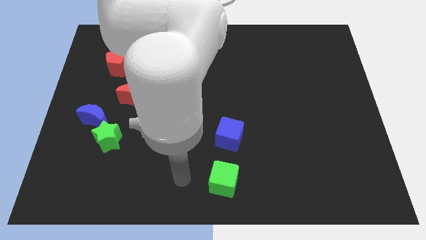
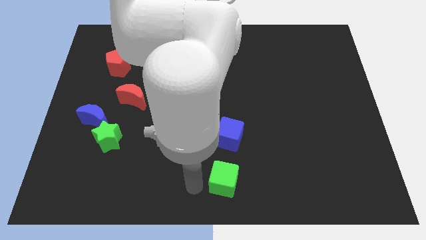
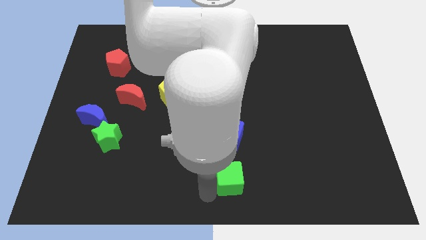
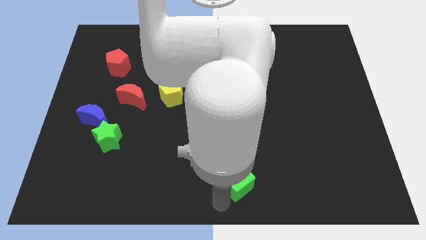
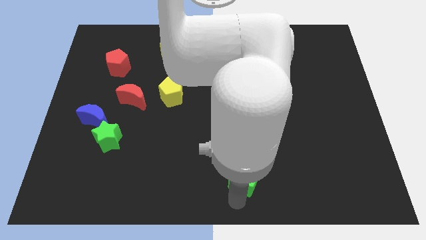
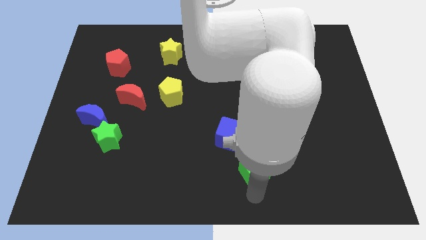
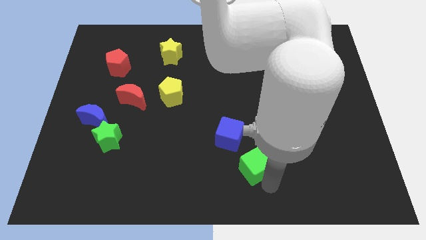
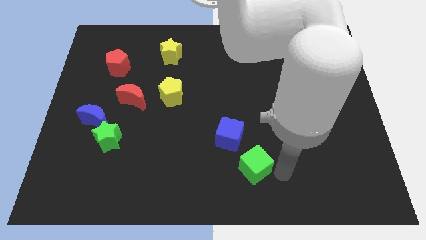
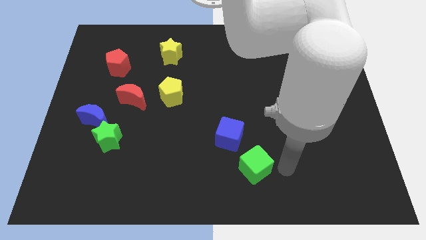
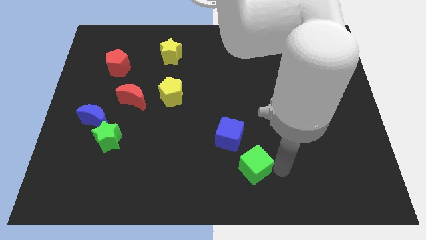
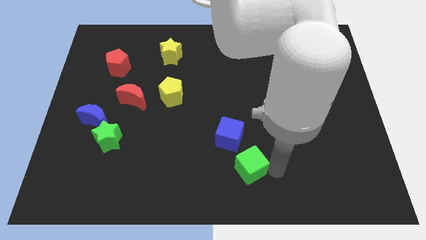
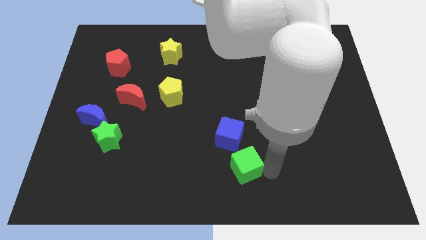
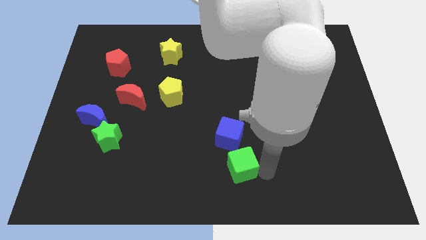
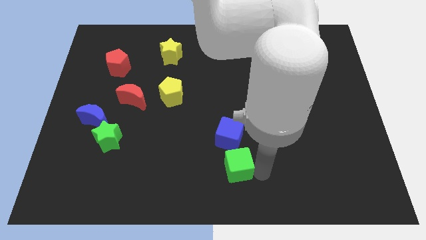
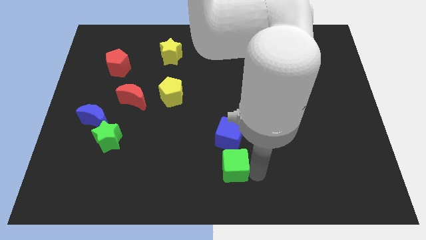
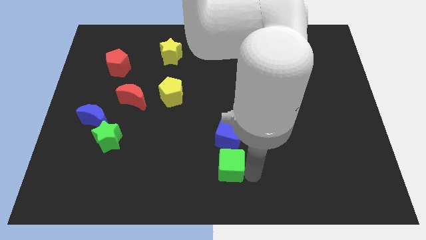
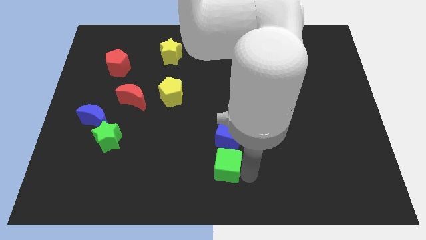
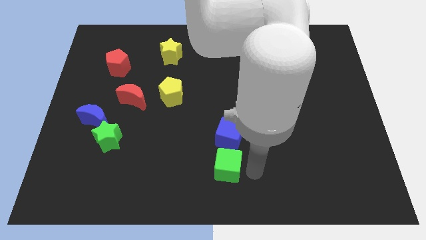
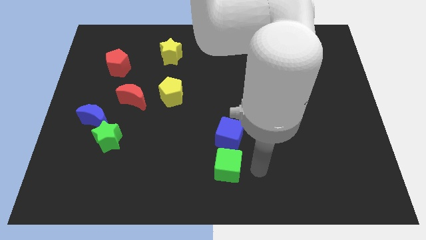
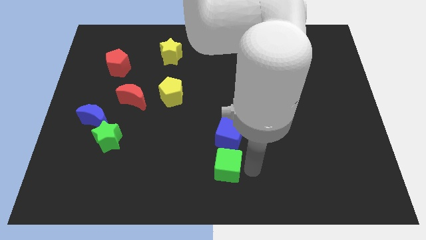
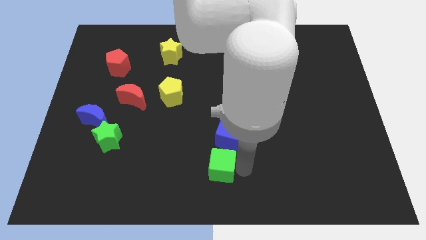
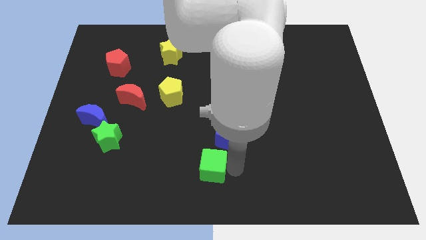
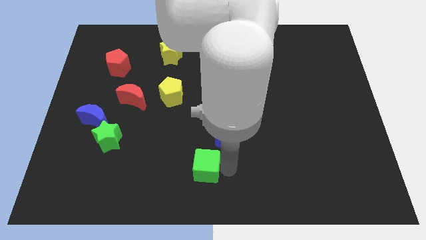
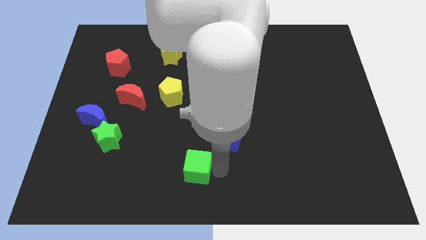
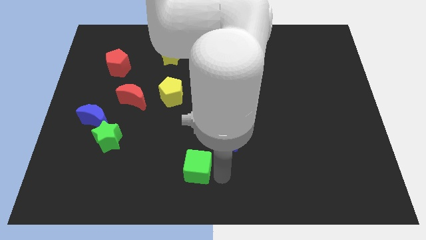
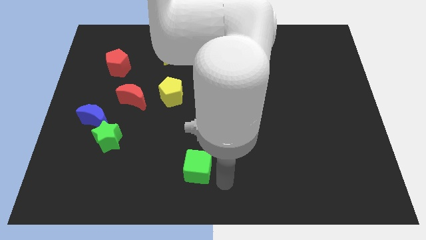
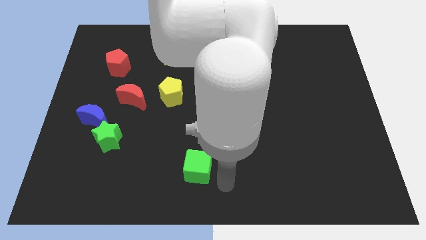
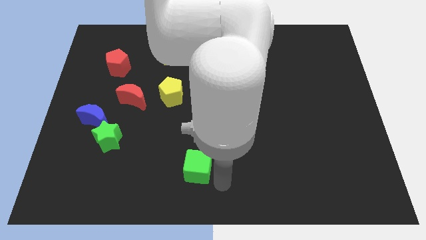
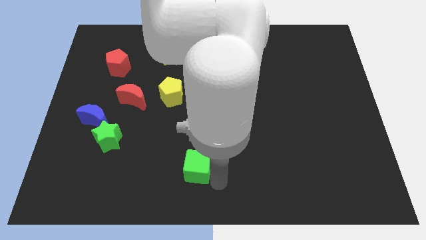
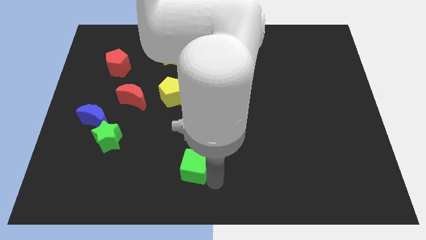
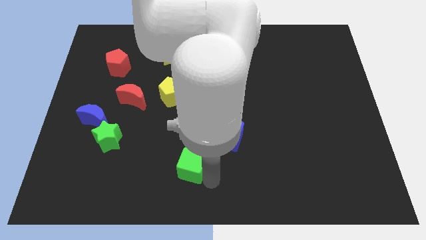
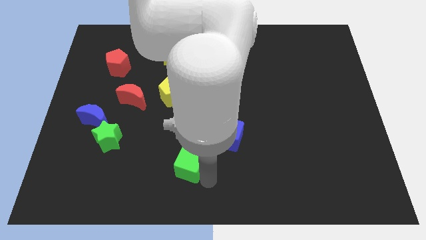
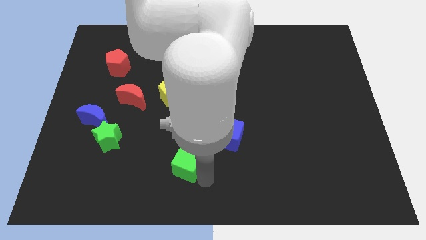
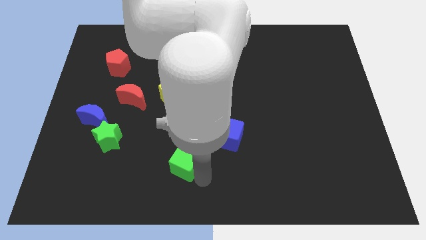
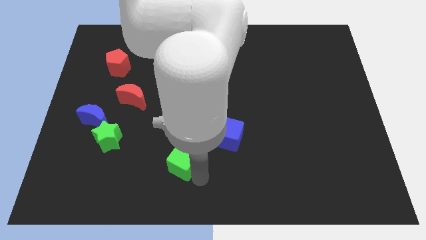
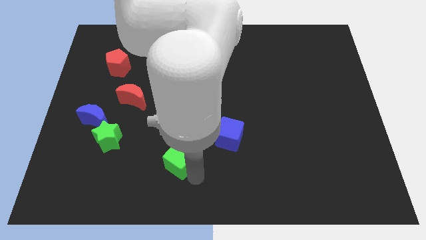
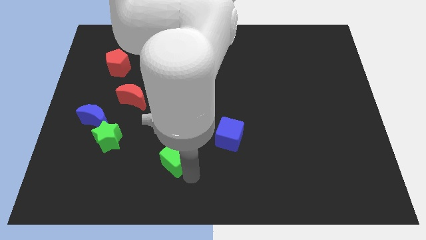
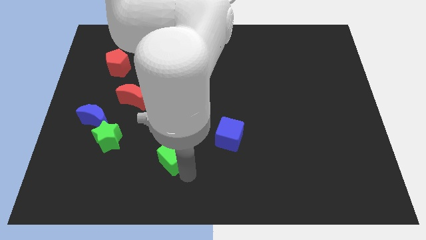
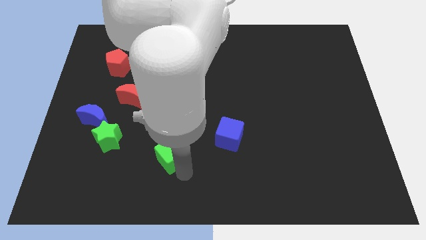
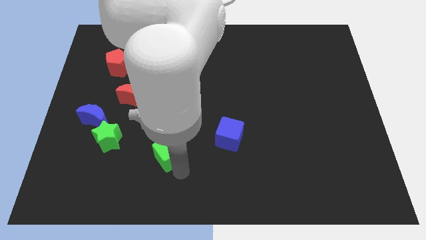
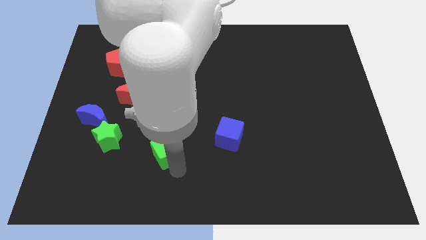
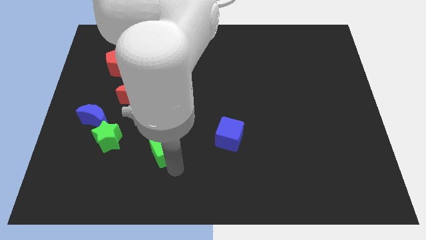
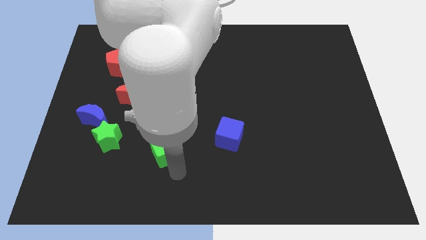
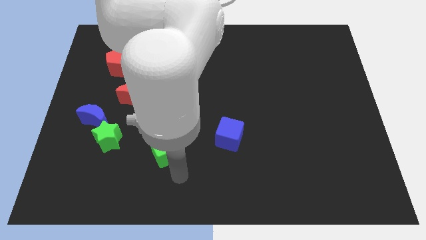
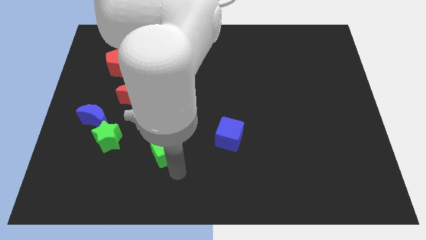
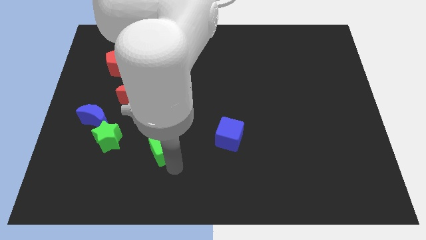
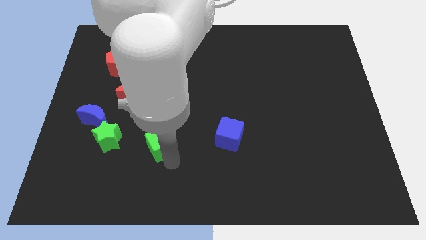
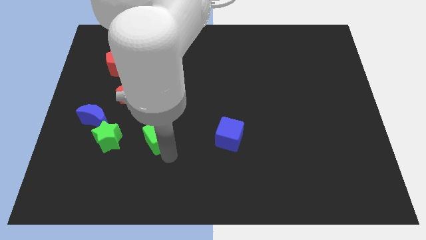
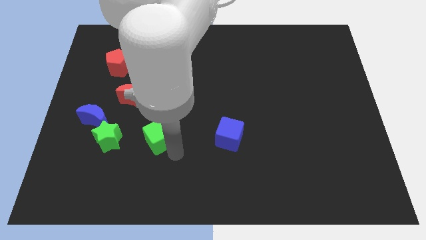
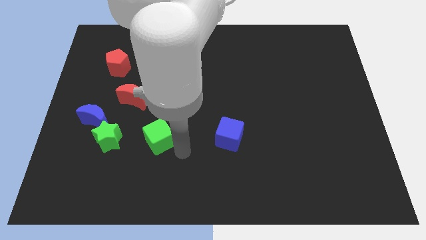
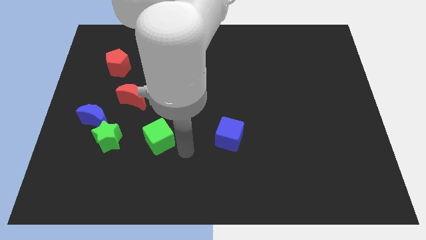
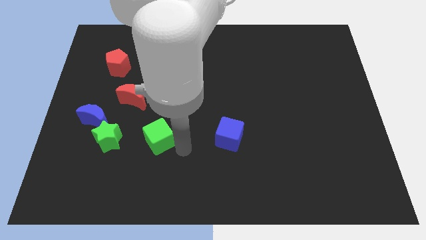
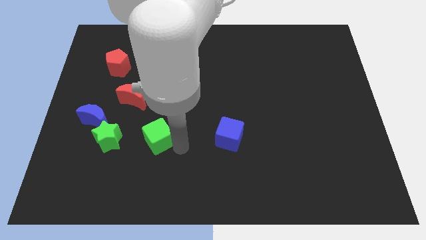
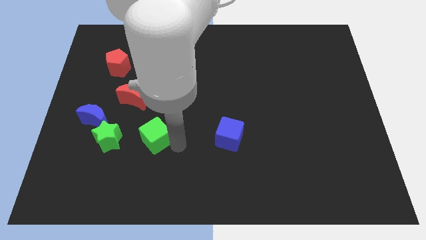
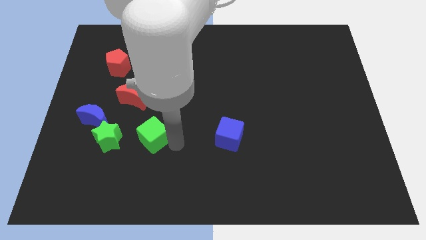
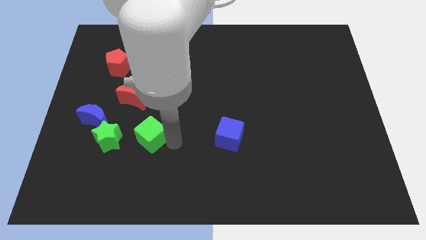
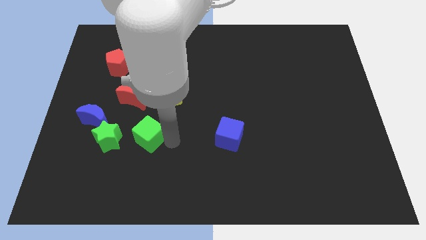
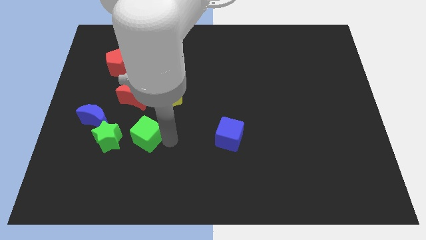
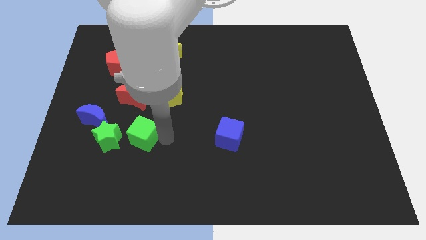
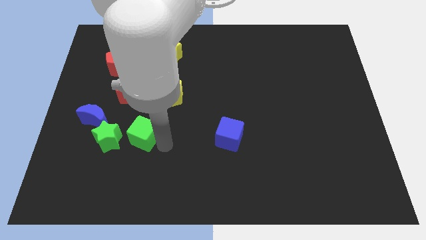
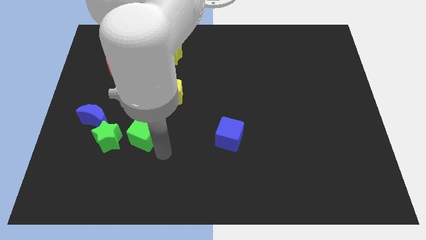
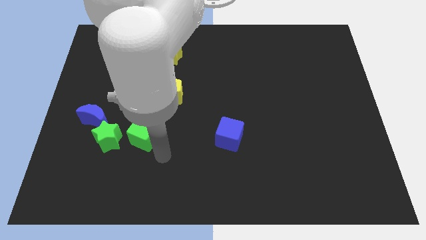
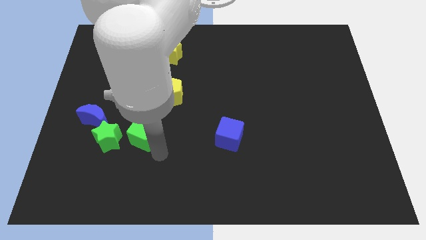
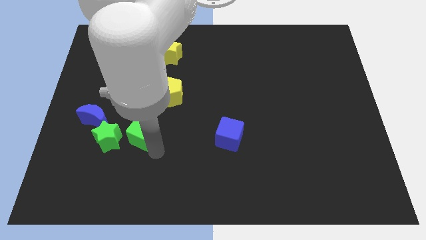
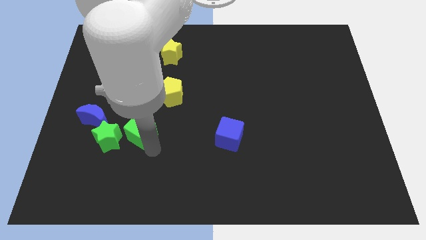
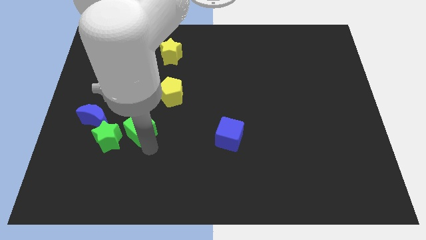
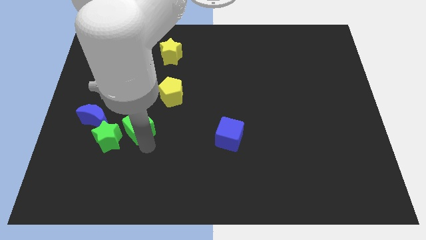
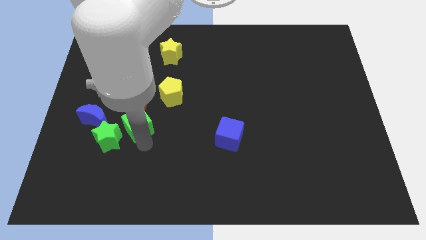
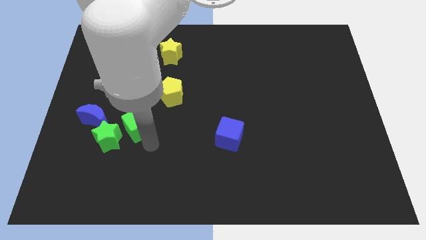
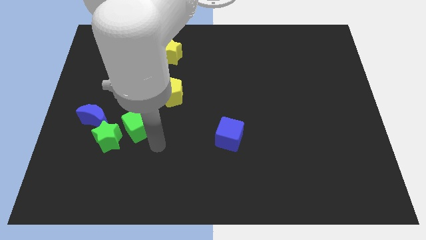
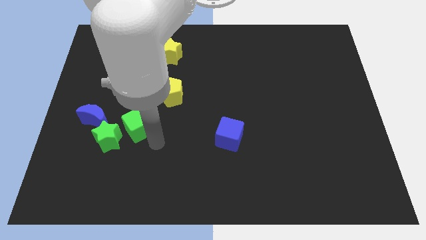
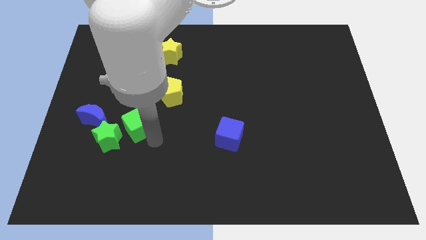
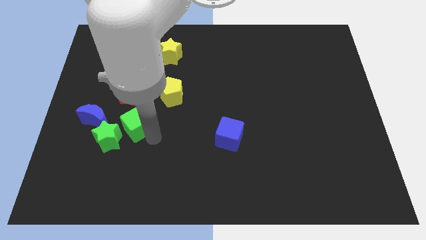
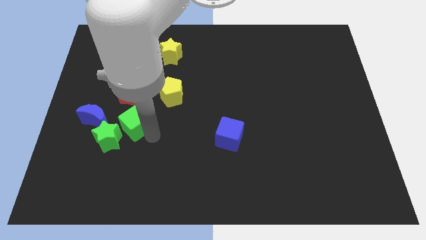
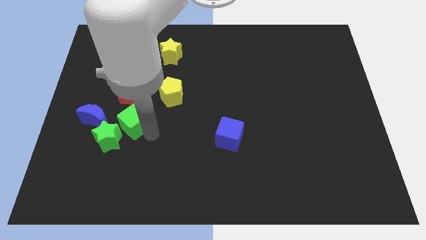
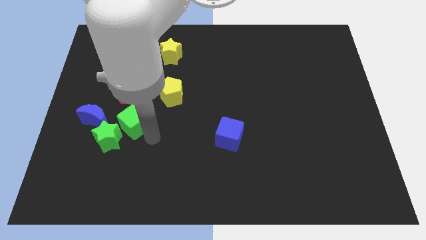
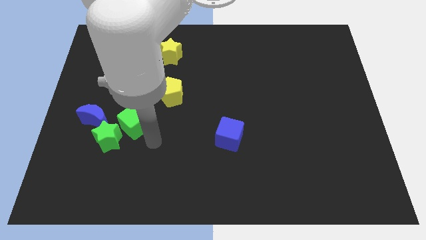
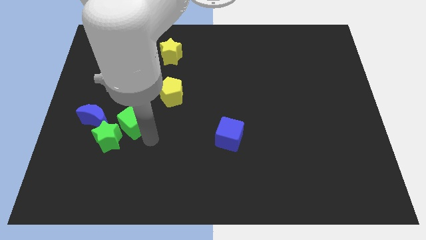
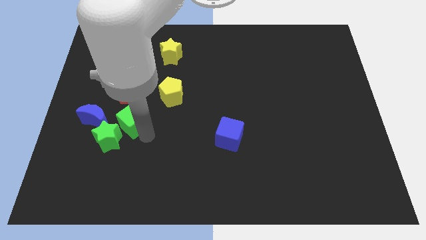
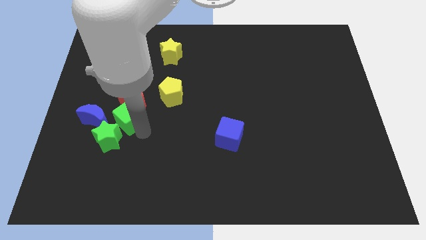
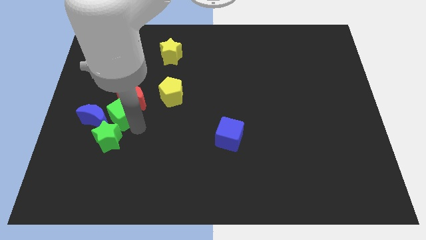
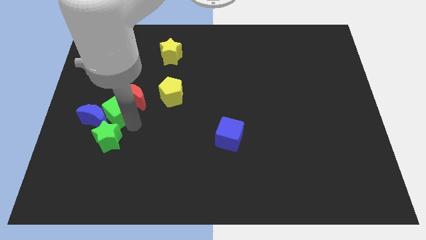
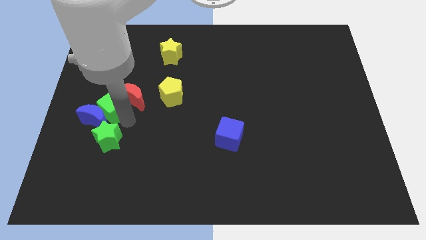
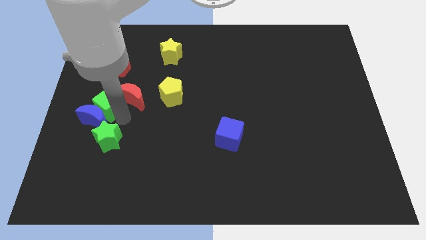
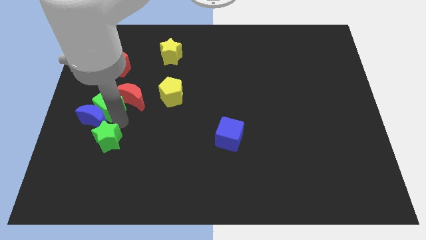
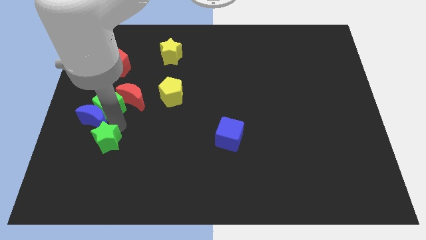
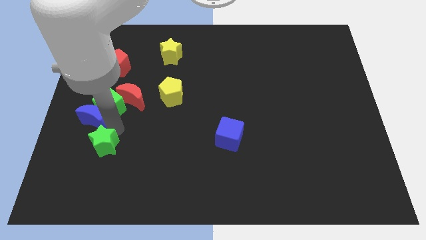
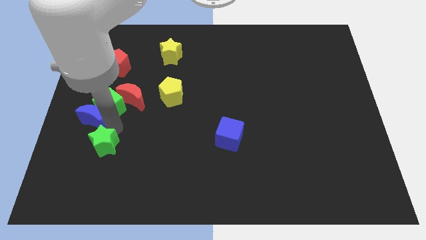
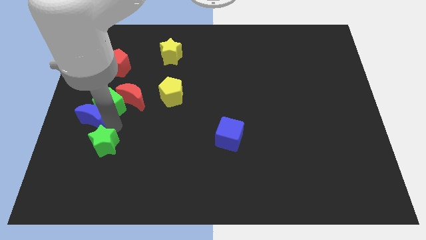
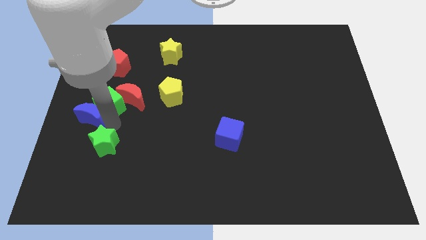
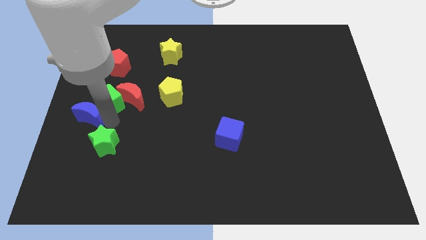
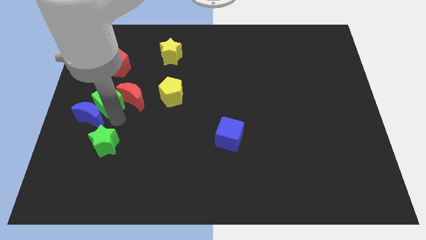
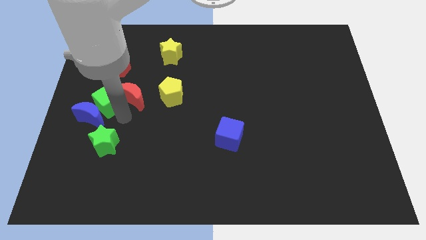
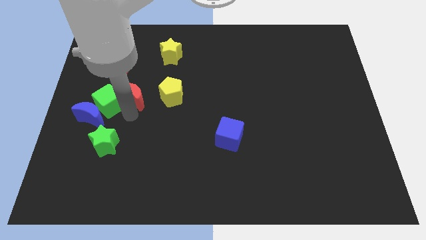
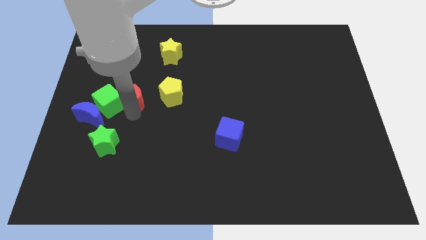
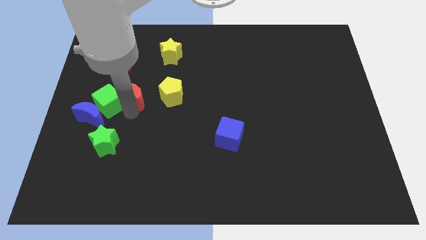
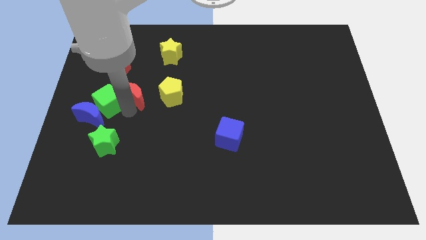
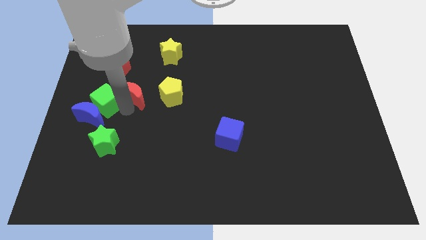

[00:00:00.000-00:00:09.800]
put the green cube to the left side
